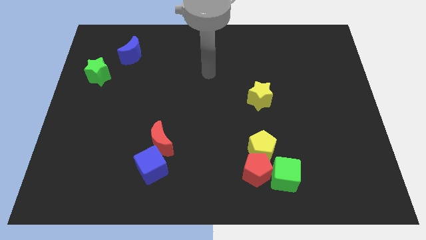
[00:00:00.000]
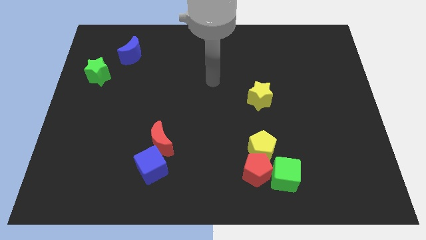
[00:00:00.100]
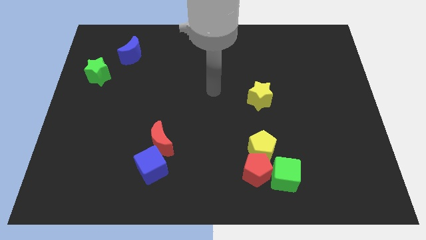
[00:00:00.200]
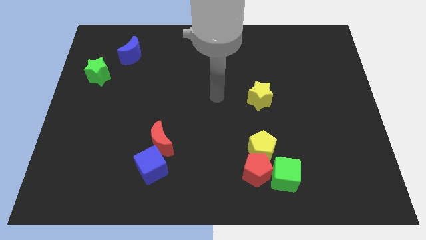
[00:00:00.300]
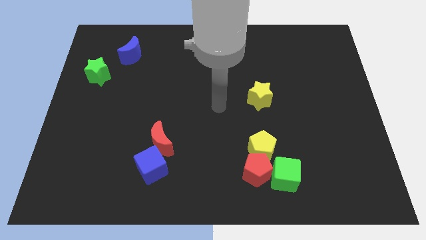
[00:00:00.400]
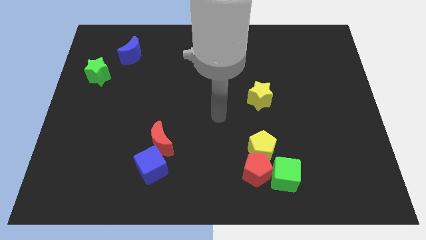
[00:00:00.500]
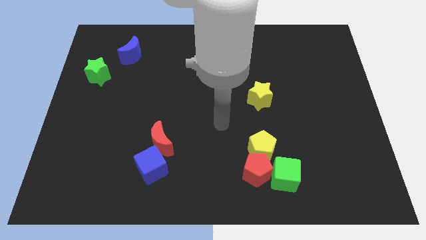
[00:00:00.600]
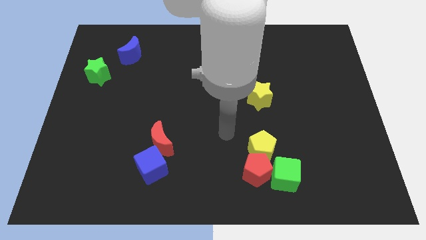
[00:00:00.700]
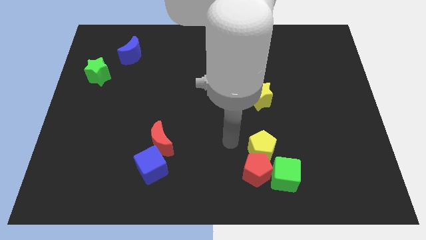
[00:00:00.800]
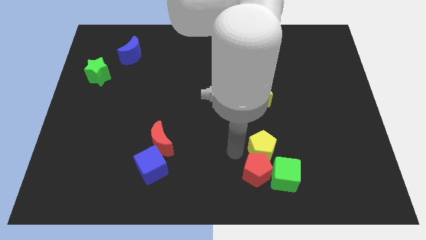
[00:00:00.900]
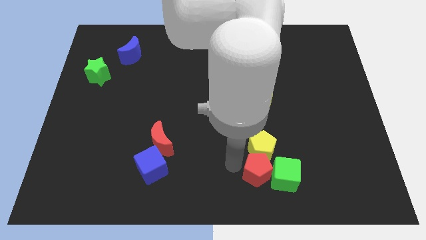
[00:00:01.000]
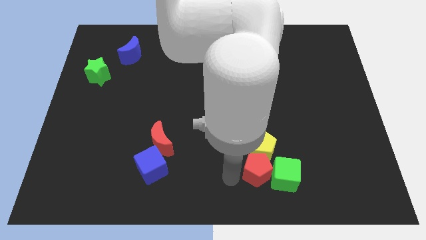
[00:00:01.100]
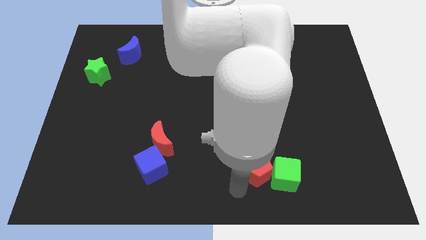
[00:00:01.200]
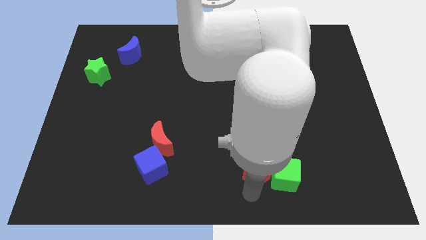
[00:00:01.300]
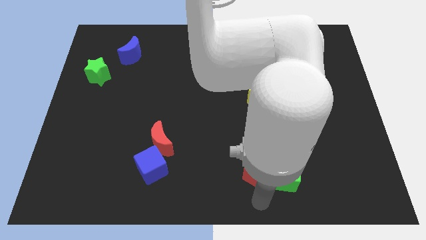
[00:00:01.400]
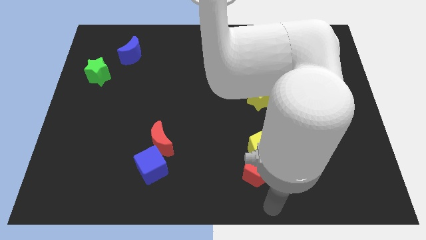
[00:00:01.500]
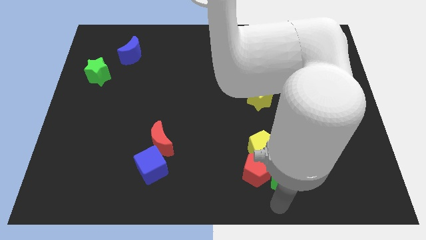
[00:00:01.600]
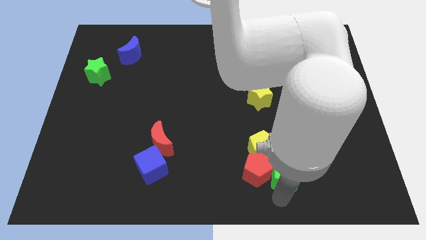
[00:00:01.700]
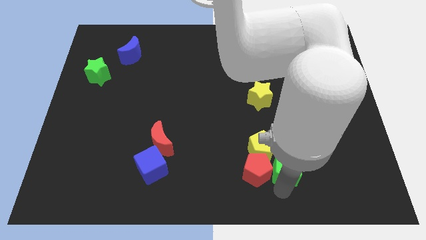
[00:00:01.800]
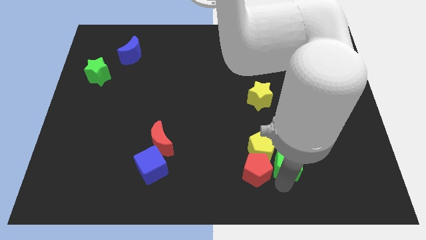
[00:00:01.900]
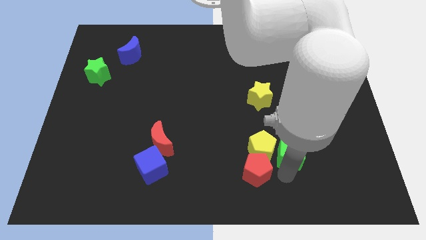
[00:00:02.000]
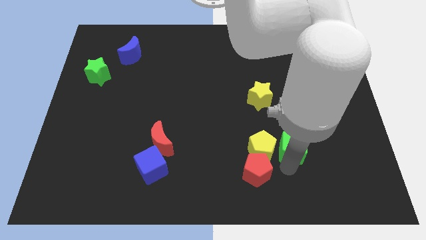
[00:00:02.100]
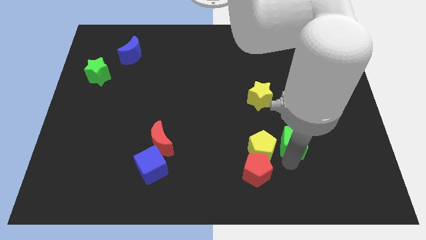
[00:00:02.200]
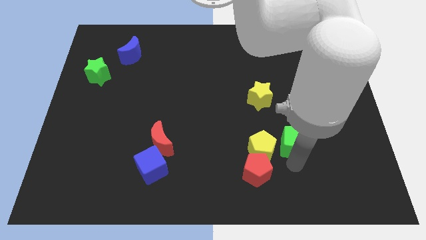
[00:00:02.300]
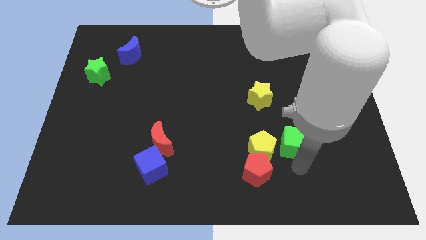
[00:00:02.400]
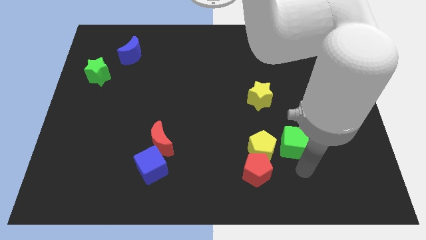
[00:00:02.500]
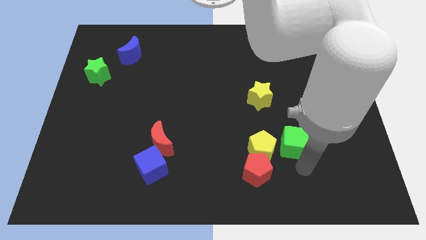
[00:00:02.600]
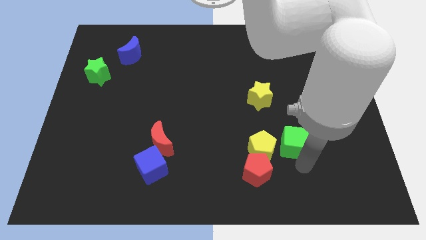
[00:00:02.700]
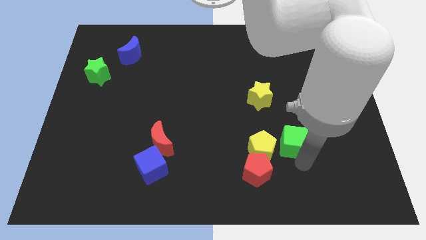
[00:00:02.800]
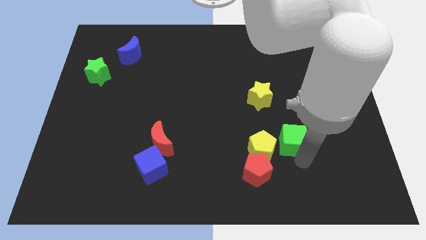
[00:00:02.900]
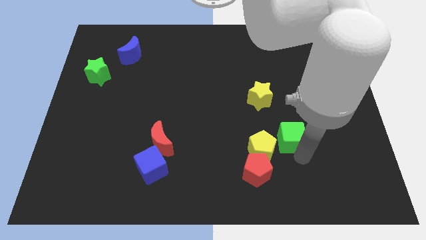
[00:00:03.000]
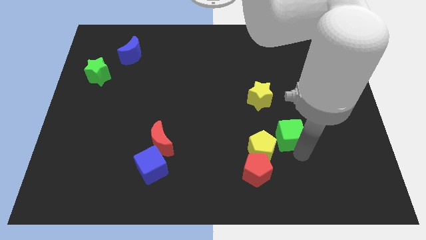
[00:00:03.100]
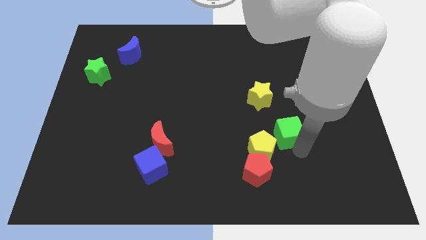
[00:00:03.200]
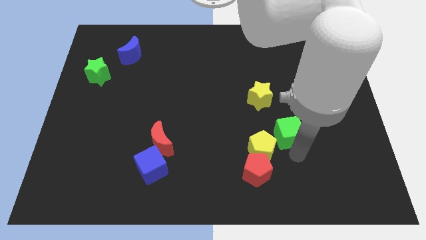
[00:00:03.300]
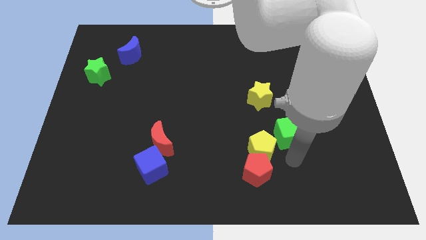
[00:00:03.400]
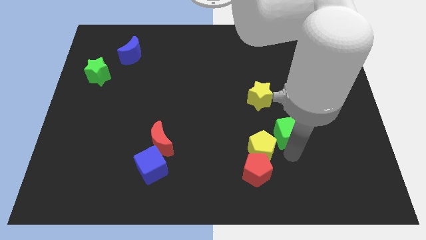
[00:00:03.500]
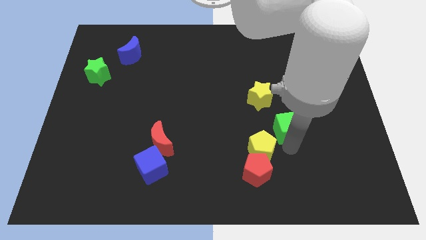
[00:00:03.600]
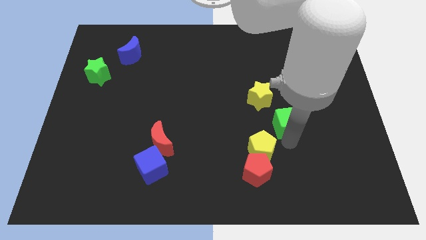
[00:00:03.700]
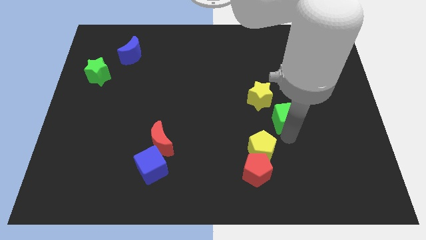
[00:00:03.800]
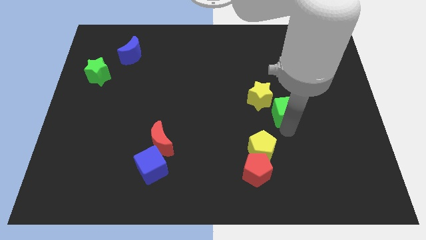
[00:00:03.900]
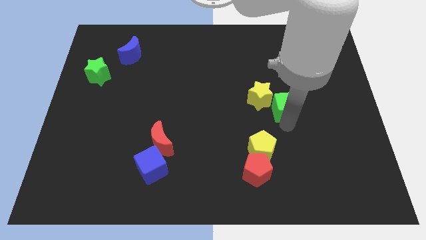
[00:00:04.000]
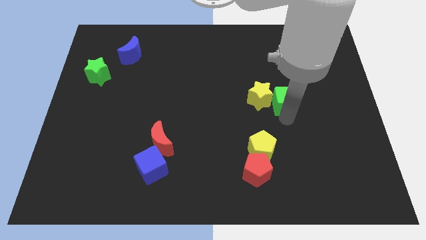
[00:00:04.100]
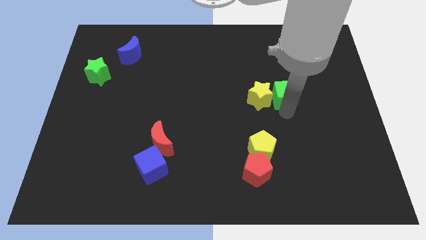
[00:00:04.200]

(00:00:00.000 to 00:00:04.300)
move the green cube upwards

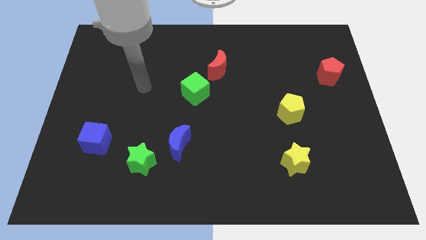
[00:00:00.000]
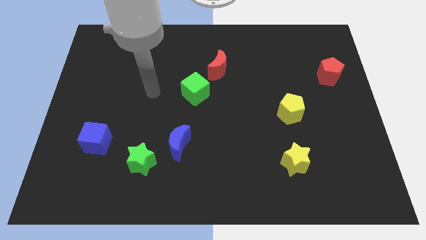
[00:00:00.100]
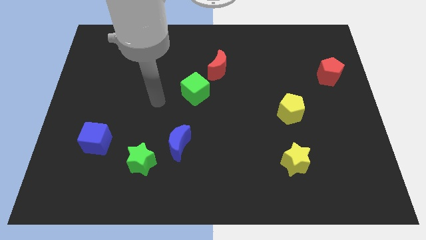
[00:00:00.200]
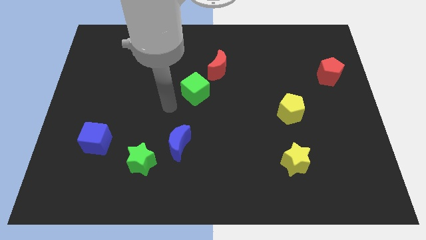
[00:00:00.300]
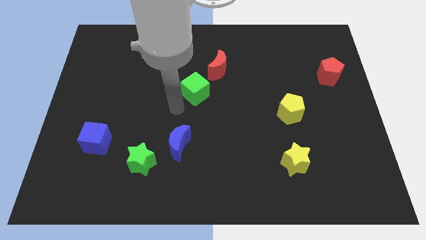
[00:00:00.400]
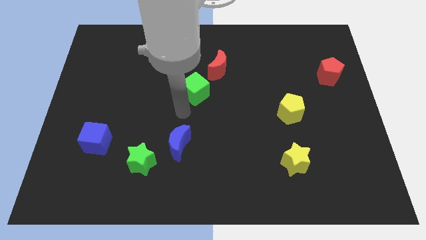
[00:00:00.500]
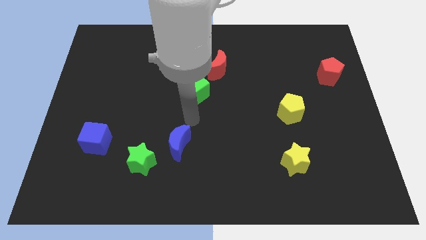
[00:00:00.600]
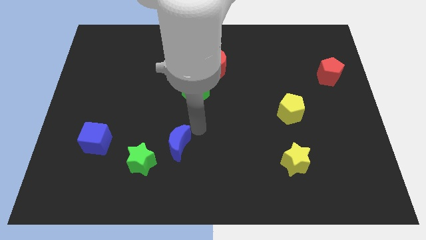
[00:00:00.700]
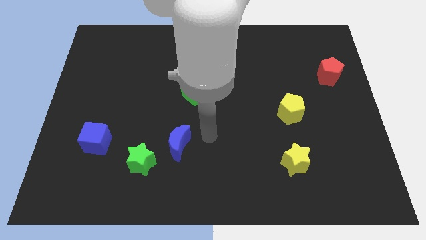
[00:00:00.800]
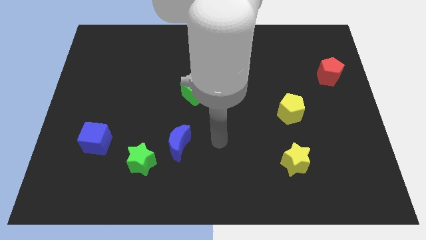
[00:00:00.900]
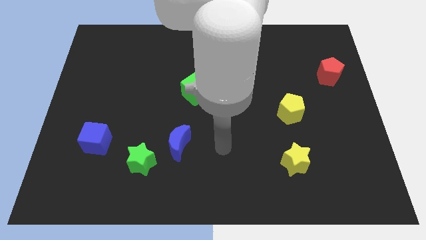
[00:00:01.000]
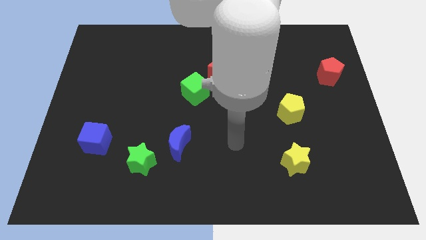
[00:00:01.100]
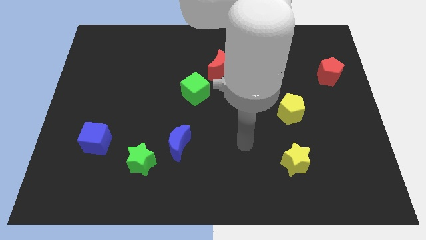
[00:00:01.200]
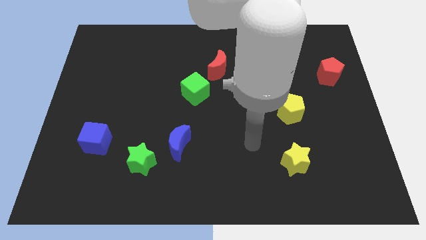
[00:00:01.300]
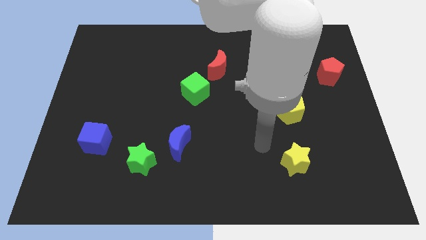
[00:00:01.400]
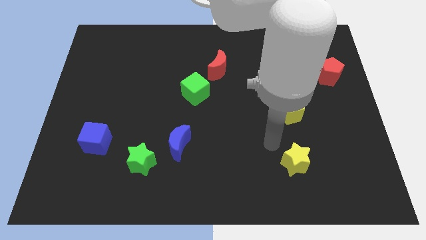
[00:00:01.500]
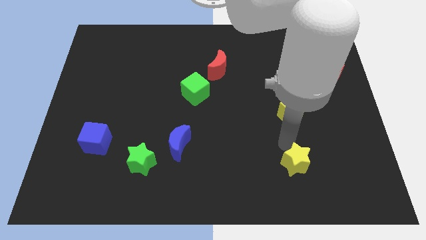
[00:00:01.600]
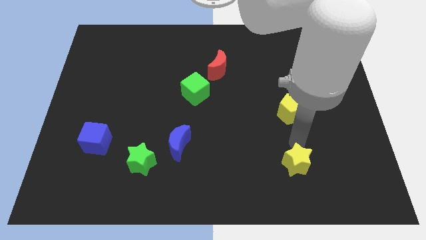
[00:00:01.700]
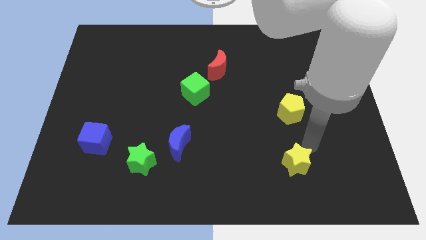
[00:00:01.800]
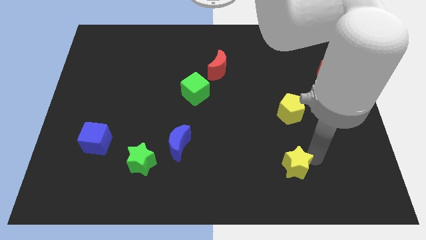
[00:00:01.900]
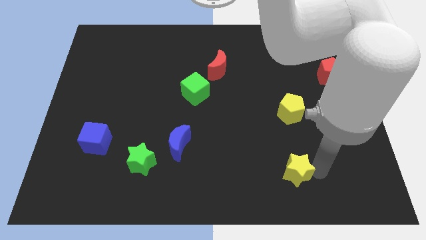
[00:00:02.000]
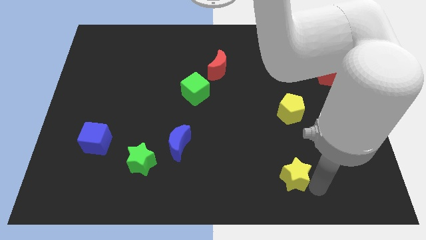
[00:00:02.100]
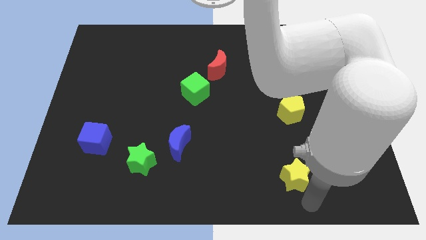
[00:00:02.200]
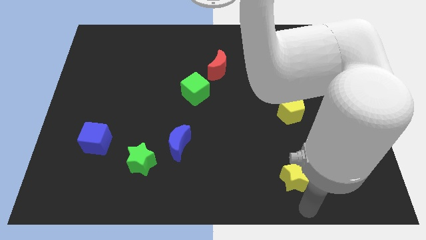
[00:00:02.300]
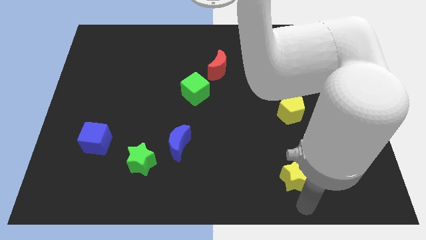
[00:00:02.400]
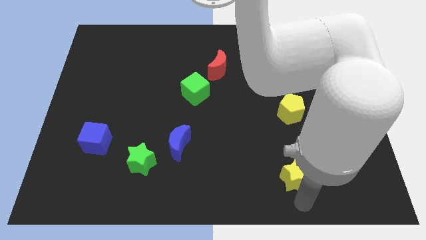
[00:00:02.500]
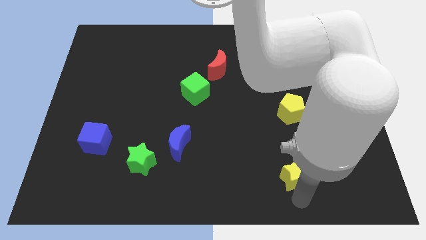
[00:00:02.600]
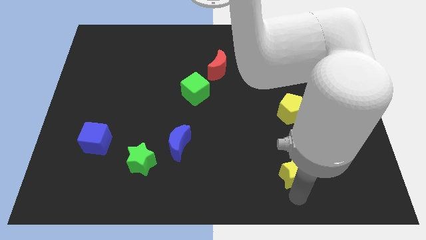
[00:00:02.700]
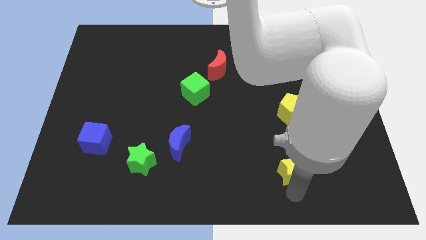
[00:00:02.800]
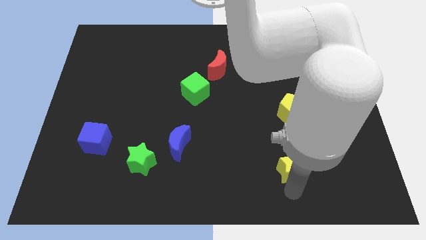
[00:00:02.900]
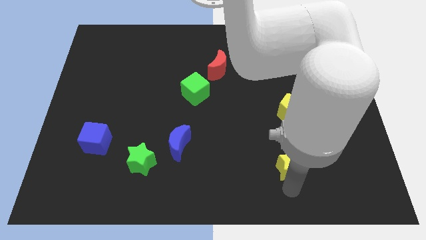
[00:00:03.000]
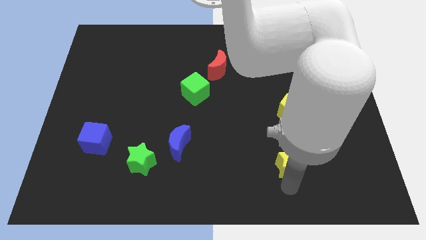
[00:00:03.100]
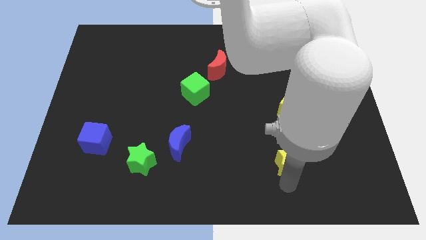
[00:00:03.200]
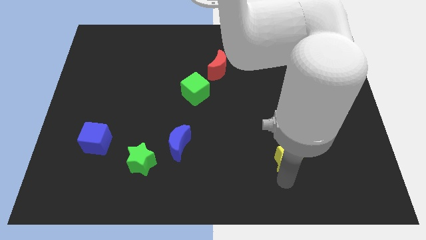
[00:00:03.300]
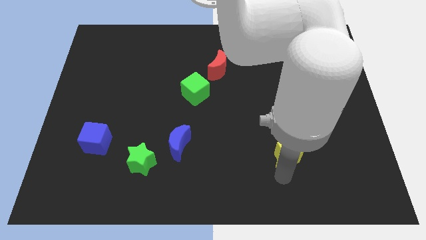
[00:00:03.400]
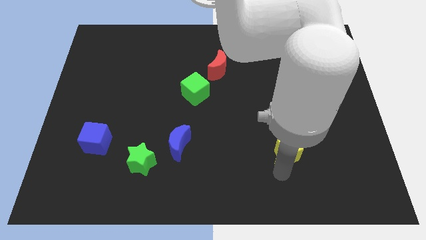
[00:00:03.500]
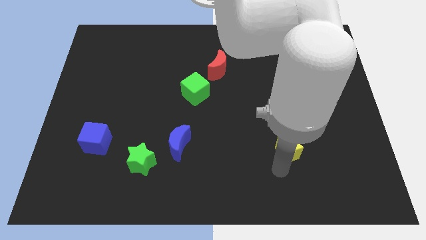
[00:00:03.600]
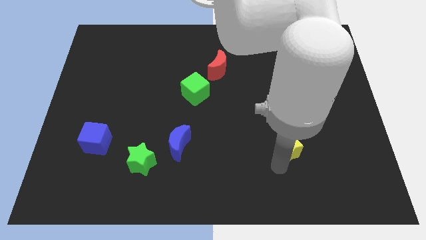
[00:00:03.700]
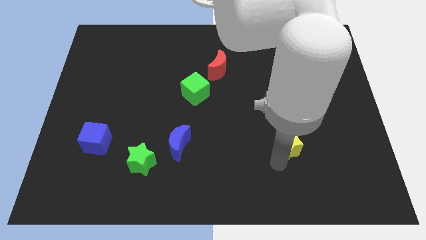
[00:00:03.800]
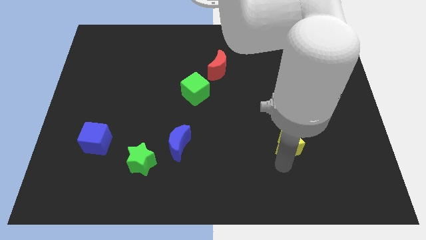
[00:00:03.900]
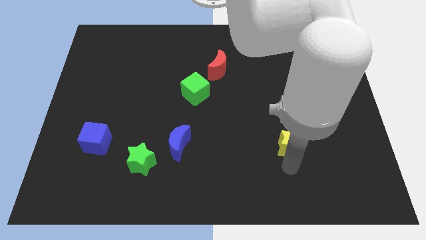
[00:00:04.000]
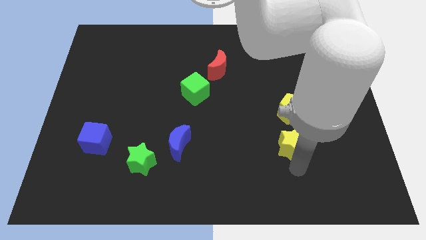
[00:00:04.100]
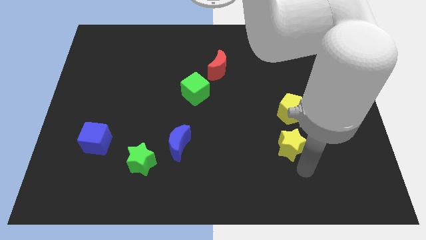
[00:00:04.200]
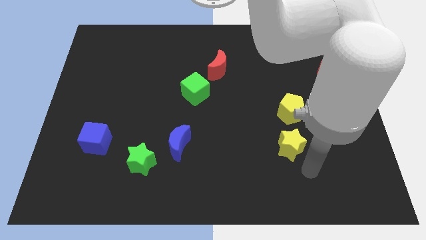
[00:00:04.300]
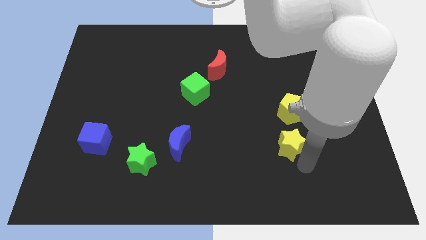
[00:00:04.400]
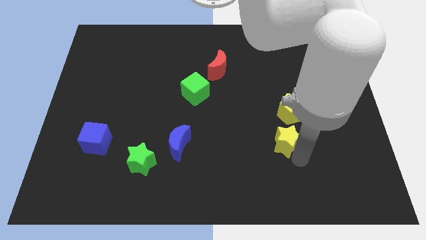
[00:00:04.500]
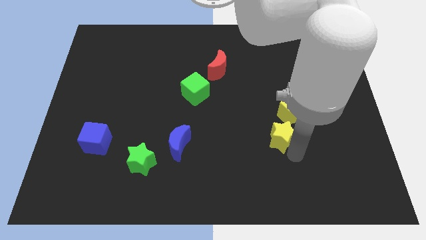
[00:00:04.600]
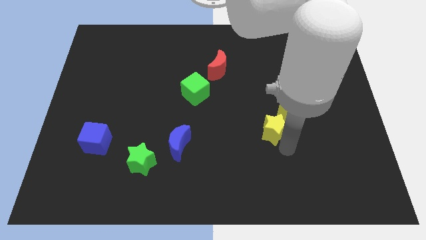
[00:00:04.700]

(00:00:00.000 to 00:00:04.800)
slightly push the yellow star upwards
